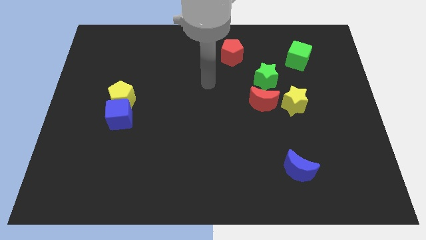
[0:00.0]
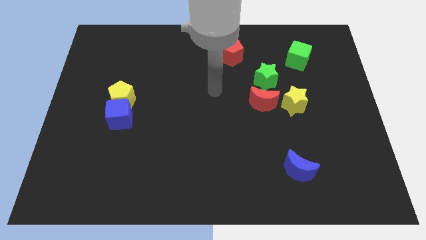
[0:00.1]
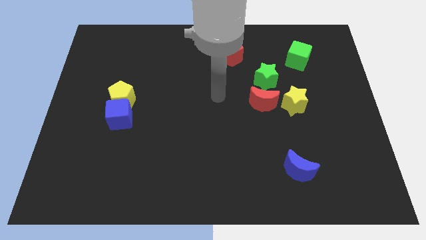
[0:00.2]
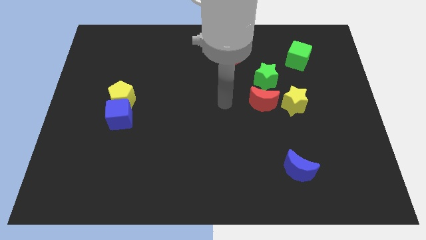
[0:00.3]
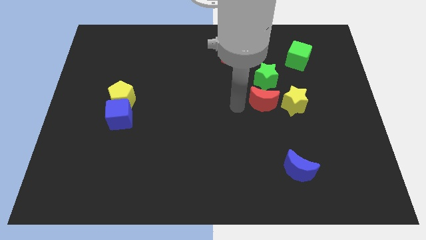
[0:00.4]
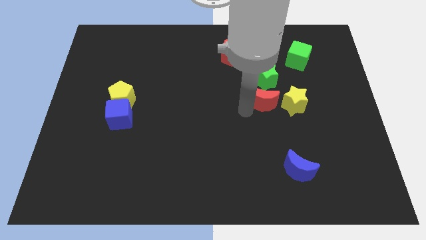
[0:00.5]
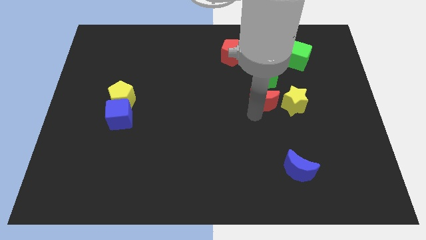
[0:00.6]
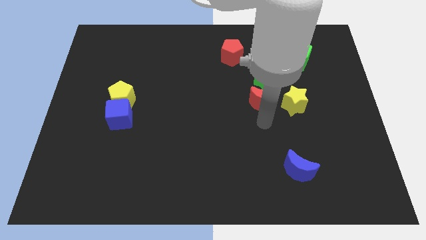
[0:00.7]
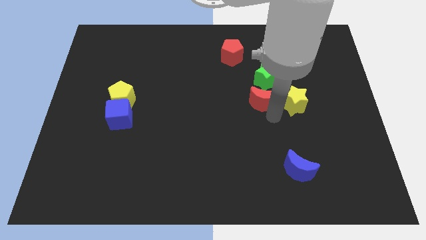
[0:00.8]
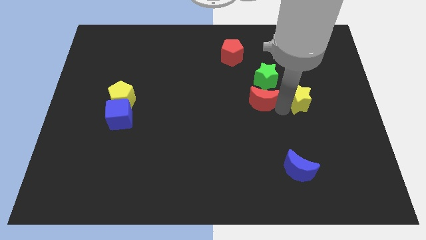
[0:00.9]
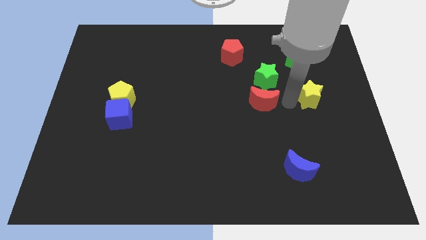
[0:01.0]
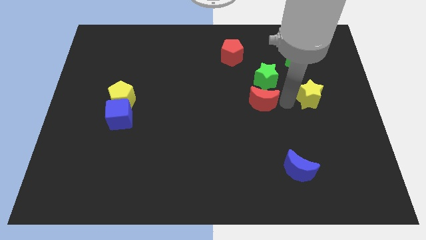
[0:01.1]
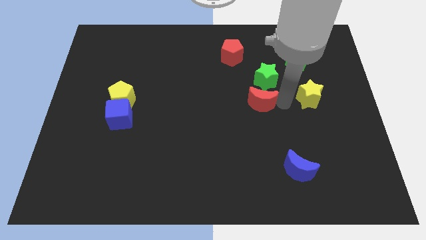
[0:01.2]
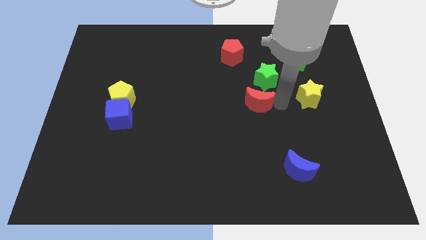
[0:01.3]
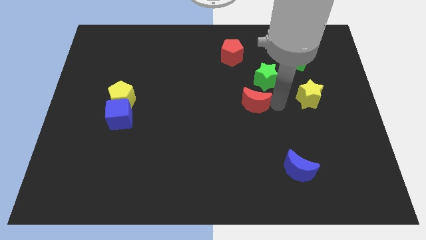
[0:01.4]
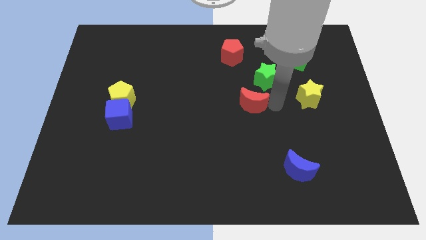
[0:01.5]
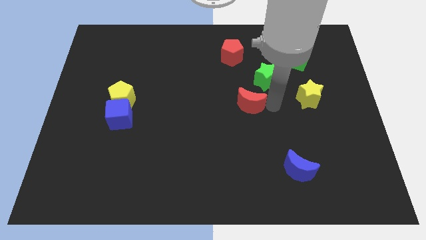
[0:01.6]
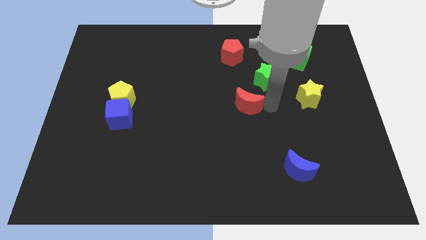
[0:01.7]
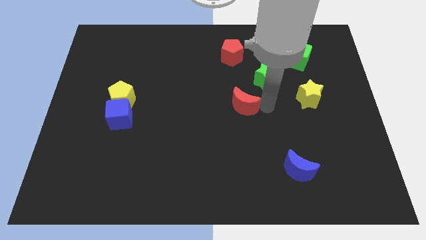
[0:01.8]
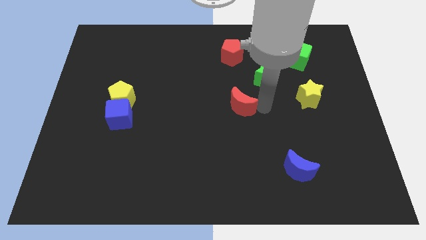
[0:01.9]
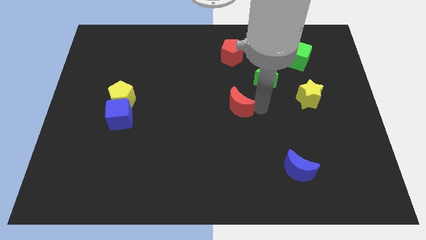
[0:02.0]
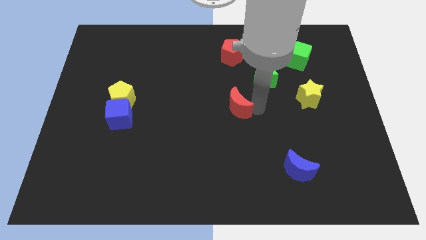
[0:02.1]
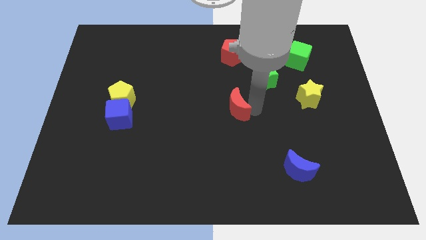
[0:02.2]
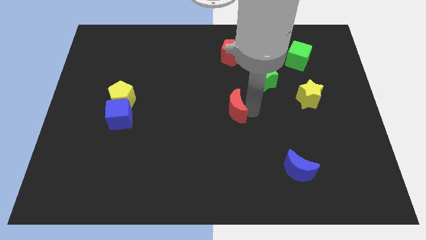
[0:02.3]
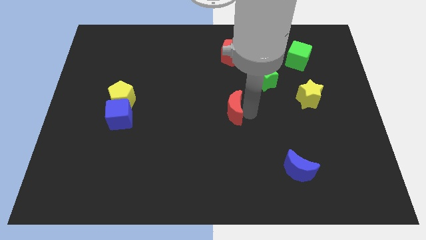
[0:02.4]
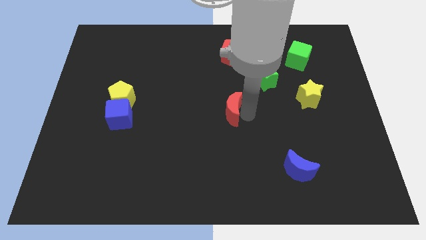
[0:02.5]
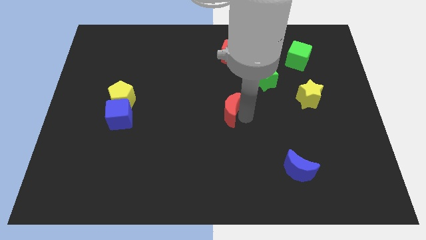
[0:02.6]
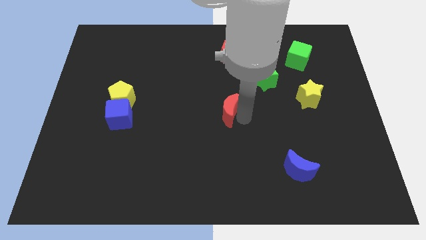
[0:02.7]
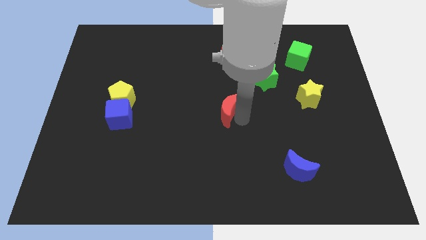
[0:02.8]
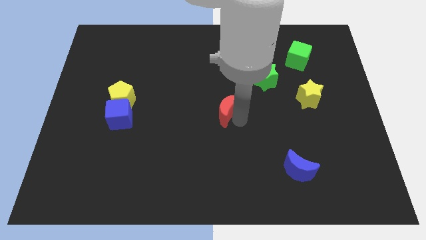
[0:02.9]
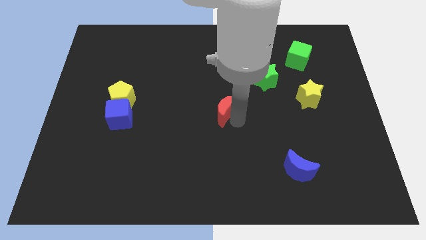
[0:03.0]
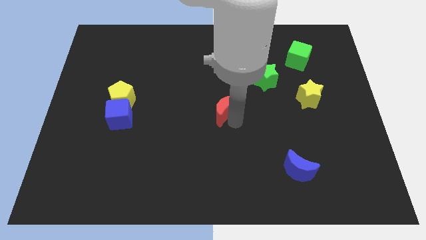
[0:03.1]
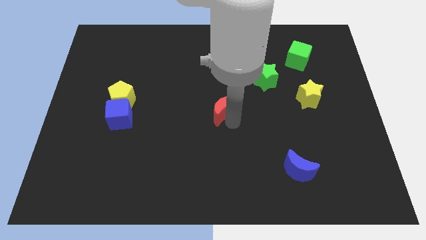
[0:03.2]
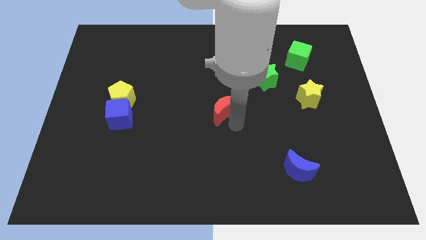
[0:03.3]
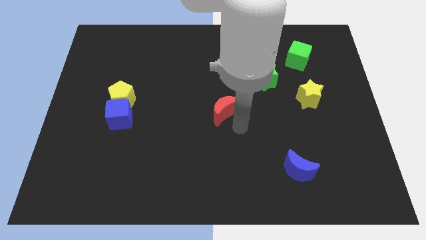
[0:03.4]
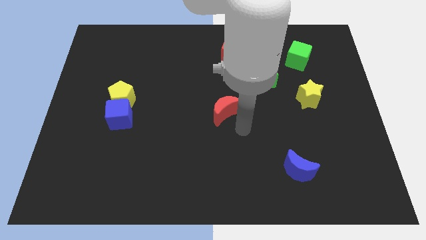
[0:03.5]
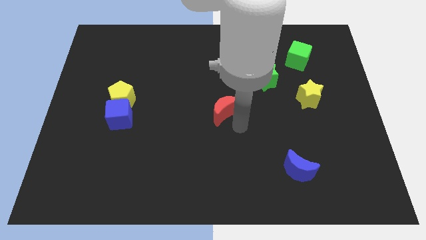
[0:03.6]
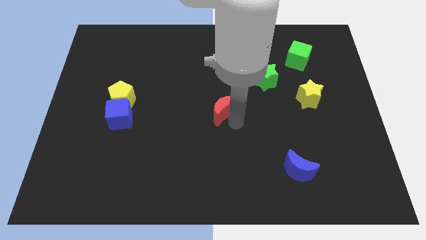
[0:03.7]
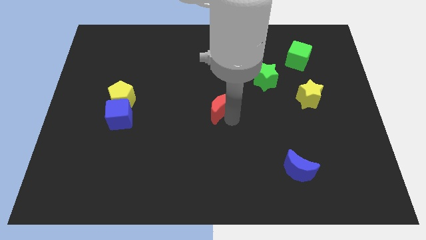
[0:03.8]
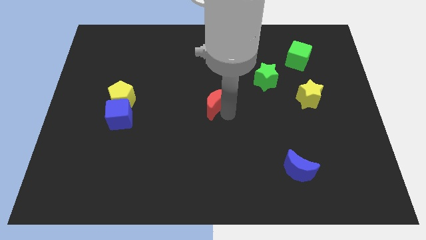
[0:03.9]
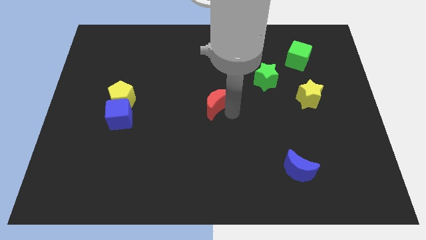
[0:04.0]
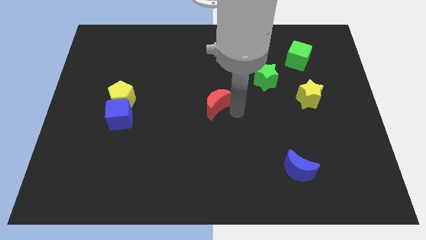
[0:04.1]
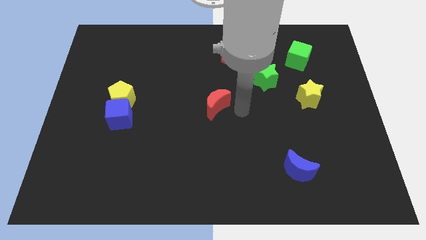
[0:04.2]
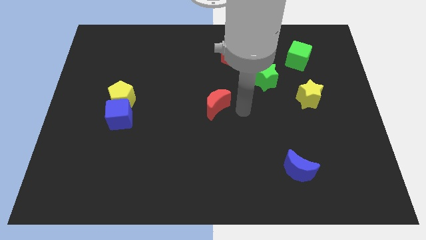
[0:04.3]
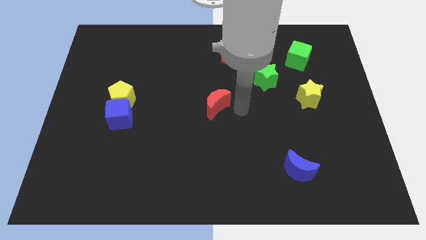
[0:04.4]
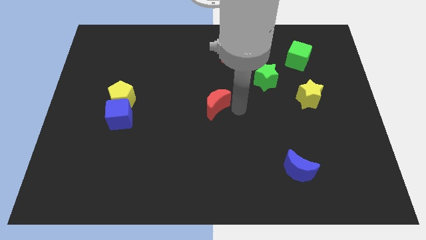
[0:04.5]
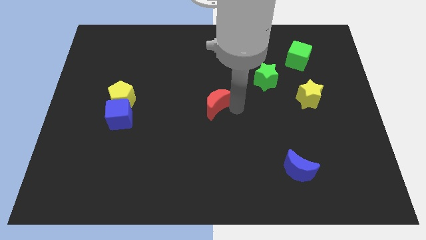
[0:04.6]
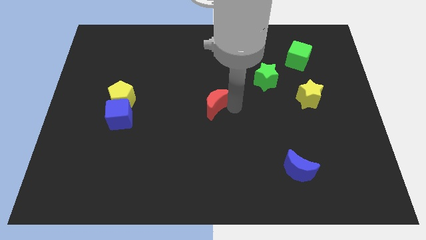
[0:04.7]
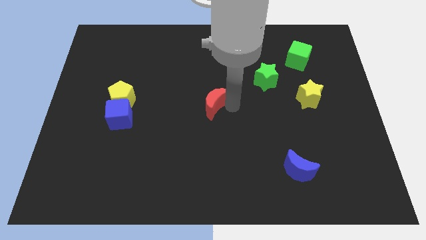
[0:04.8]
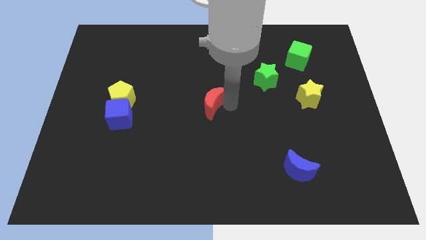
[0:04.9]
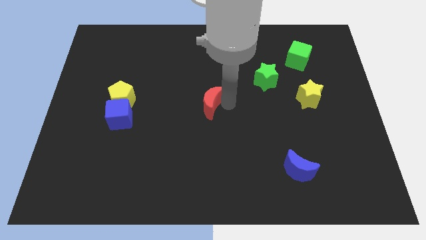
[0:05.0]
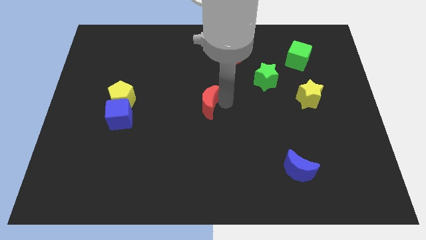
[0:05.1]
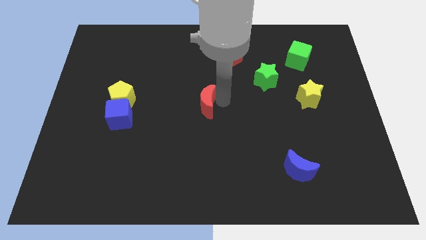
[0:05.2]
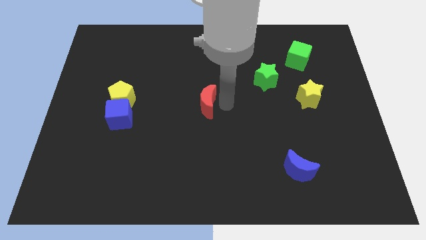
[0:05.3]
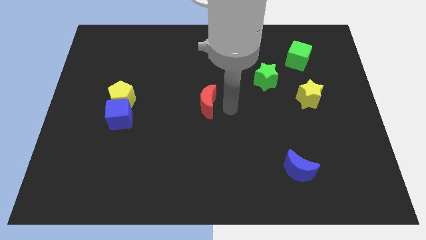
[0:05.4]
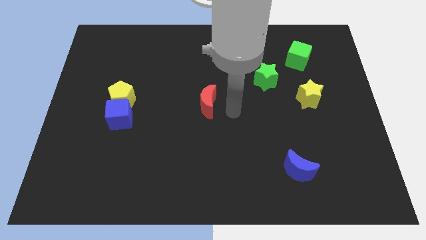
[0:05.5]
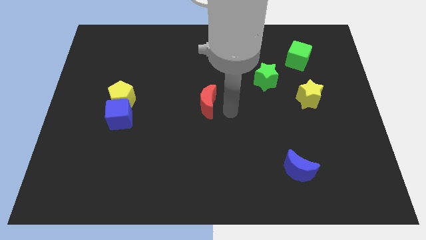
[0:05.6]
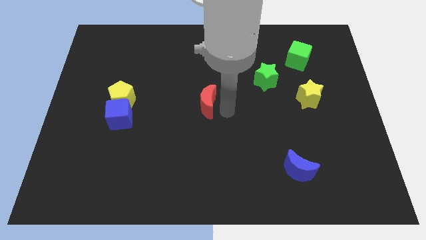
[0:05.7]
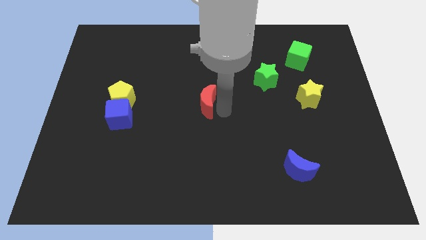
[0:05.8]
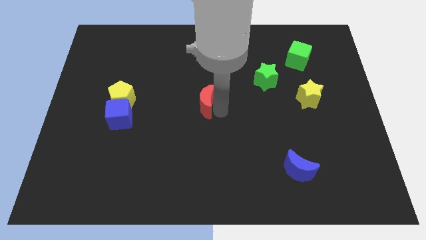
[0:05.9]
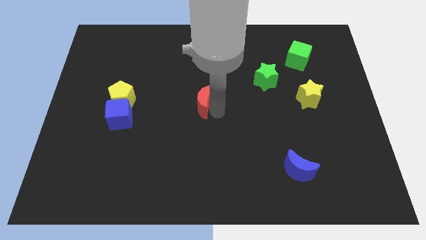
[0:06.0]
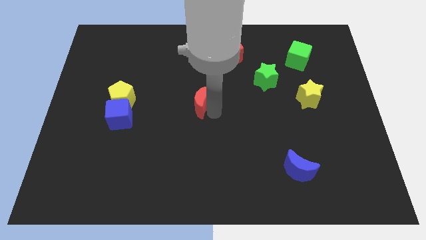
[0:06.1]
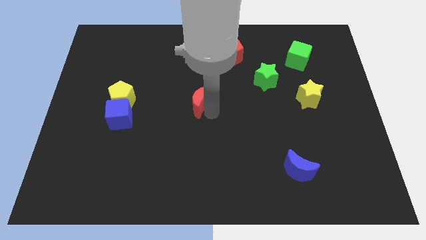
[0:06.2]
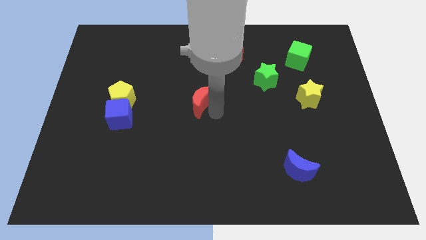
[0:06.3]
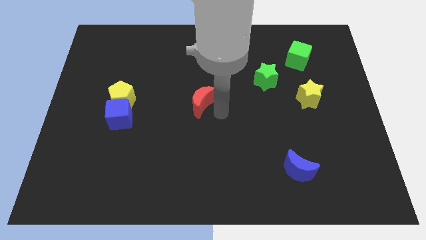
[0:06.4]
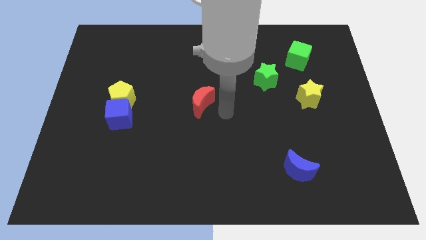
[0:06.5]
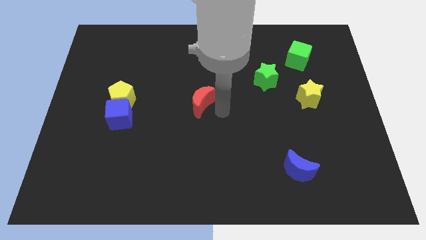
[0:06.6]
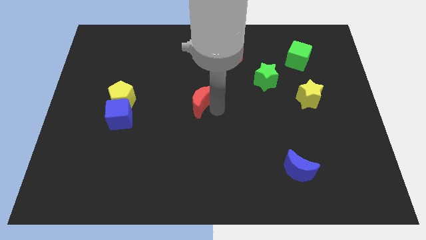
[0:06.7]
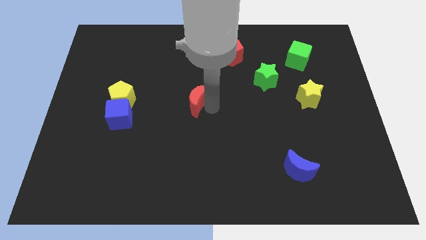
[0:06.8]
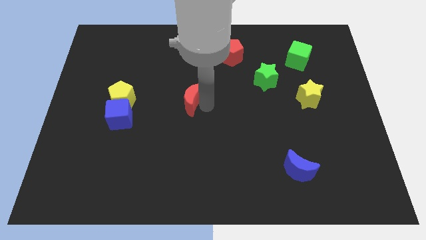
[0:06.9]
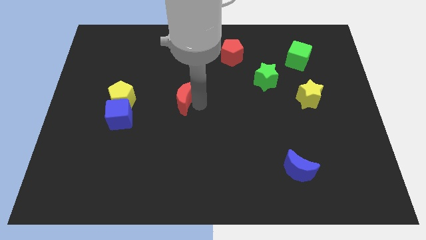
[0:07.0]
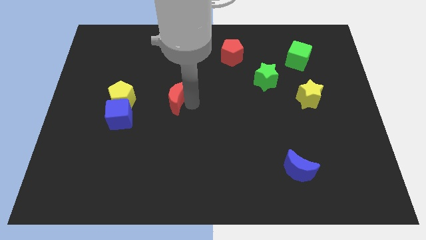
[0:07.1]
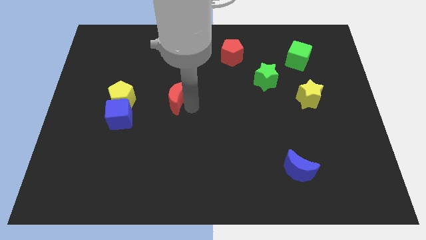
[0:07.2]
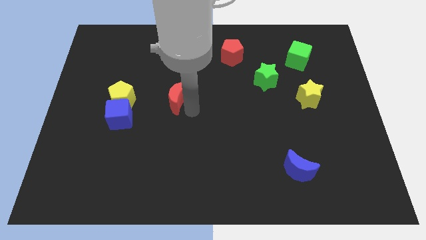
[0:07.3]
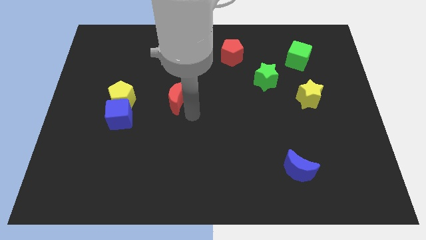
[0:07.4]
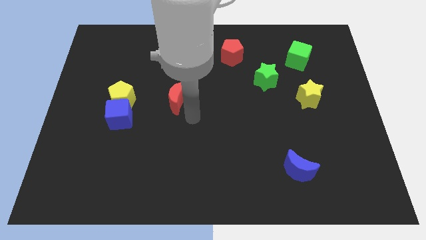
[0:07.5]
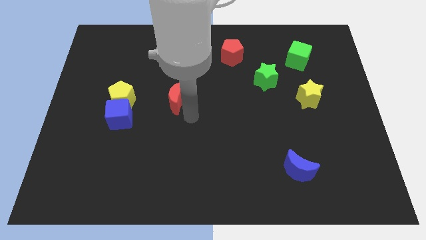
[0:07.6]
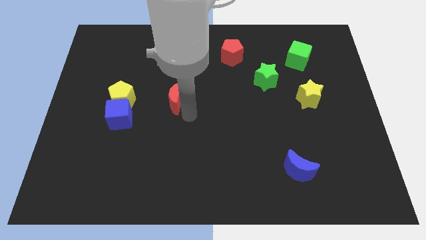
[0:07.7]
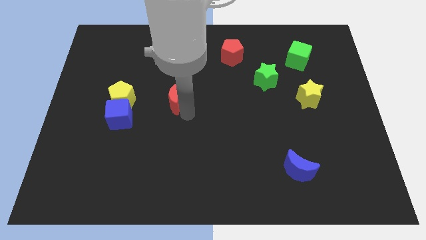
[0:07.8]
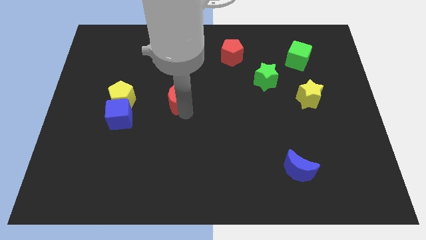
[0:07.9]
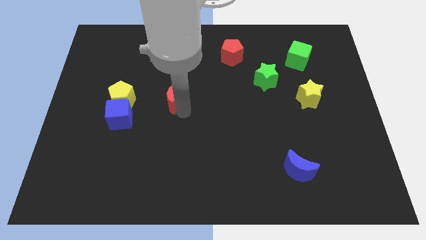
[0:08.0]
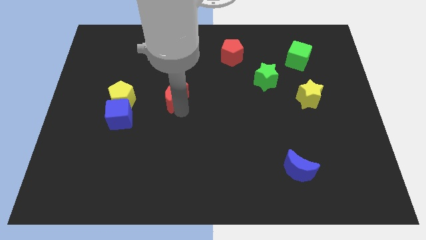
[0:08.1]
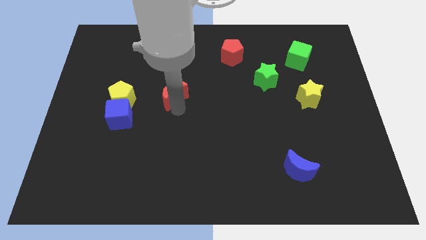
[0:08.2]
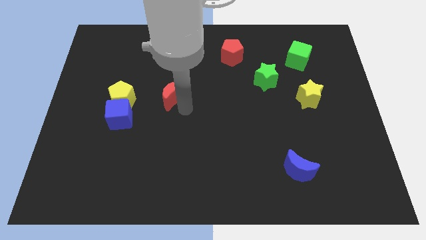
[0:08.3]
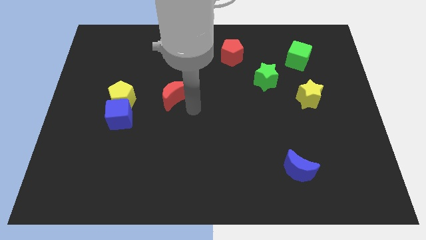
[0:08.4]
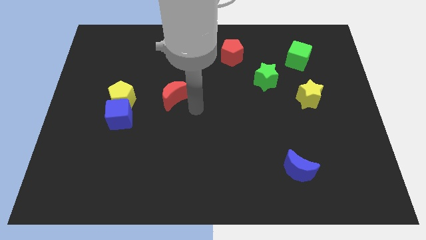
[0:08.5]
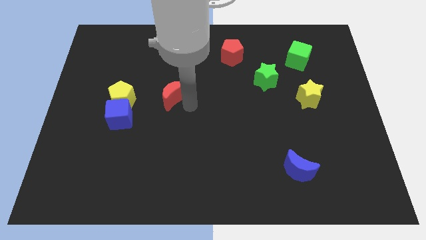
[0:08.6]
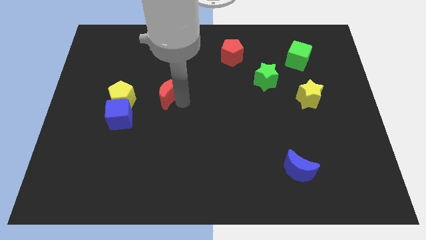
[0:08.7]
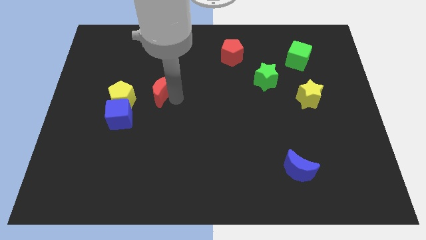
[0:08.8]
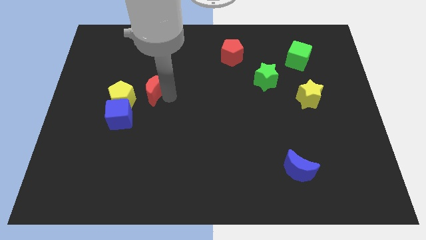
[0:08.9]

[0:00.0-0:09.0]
put the red moon to the top right of the yellow pentagon
